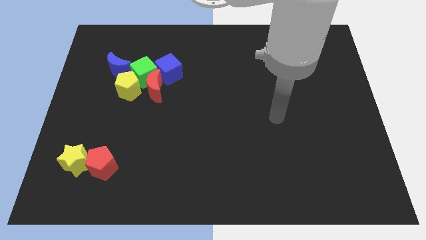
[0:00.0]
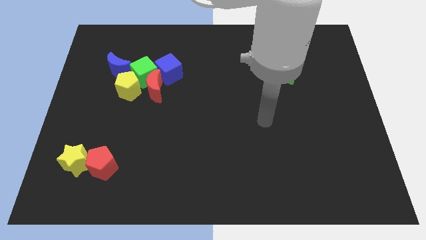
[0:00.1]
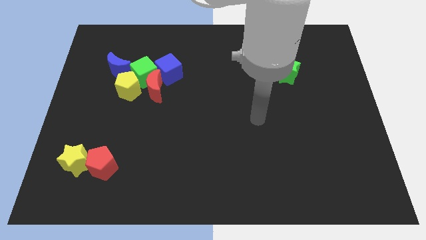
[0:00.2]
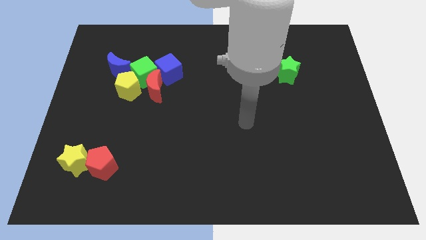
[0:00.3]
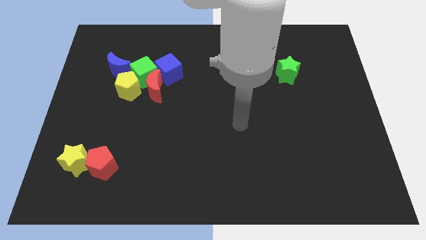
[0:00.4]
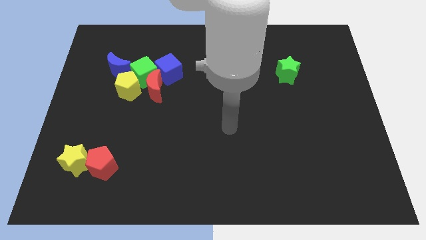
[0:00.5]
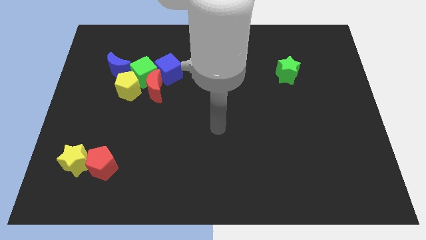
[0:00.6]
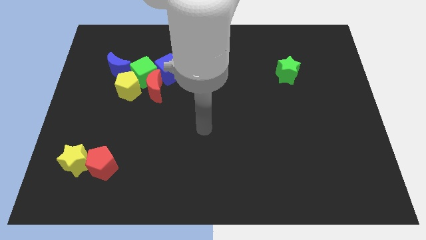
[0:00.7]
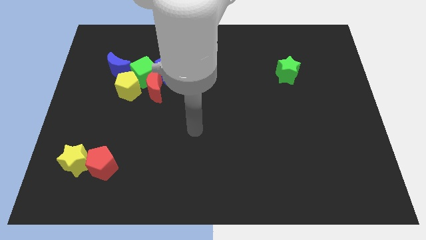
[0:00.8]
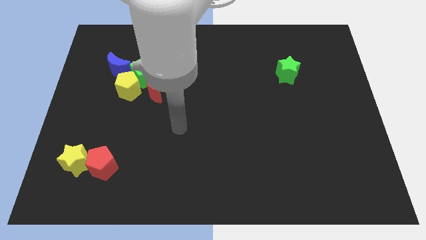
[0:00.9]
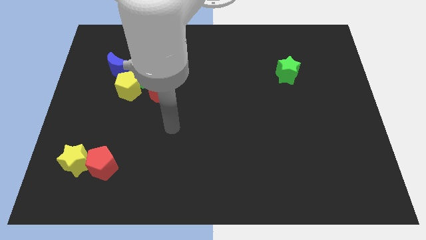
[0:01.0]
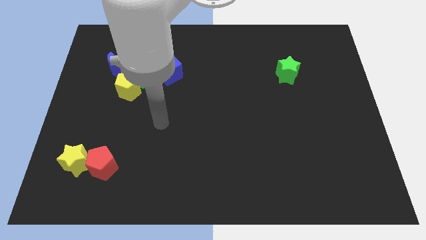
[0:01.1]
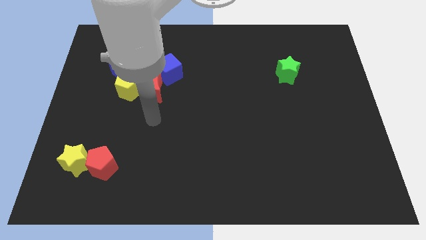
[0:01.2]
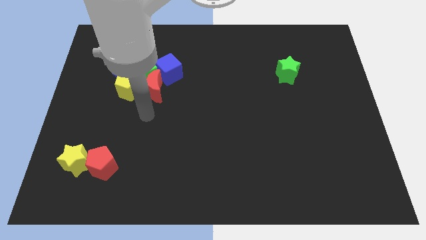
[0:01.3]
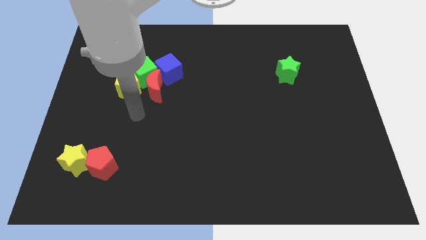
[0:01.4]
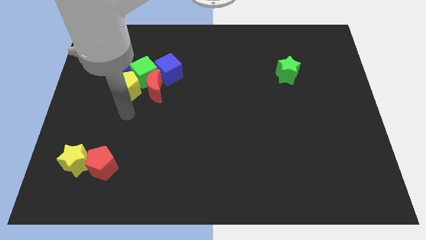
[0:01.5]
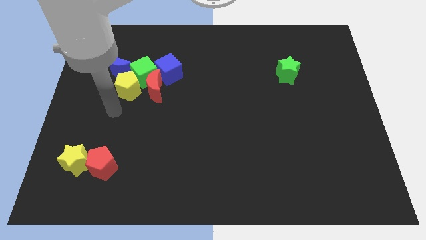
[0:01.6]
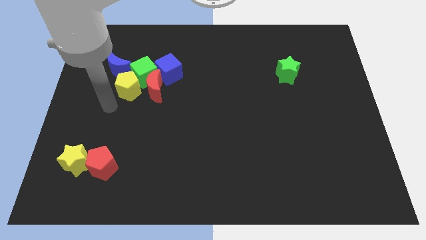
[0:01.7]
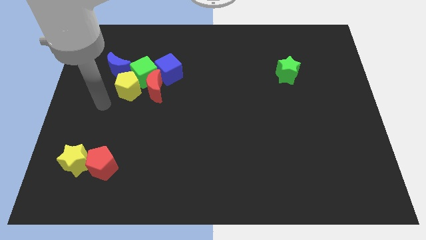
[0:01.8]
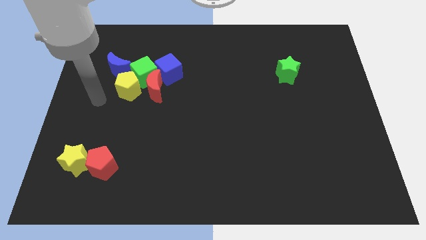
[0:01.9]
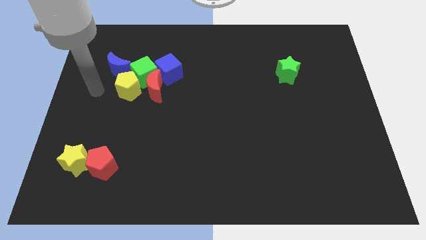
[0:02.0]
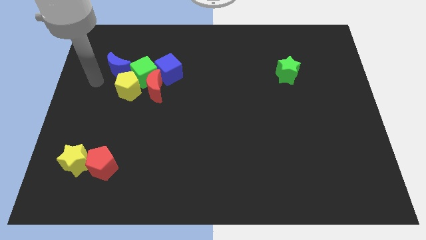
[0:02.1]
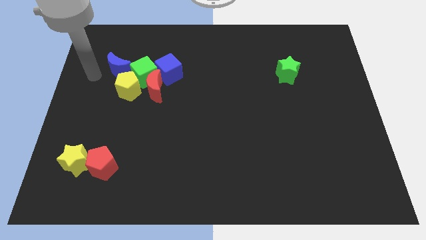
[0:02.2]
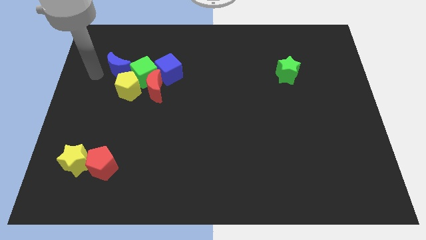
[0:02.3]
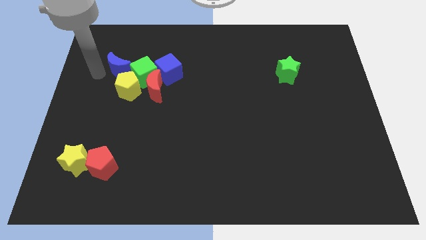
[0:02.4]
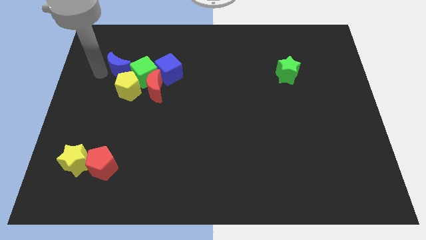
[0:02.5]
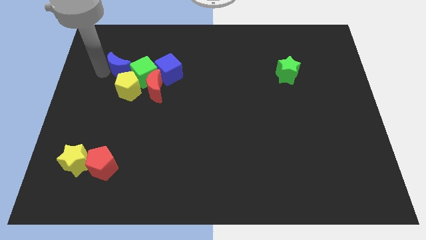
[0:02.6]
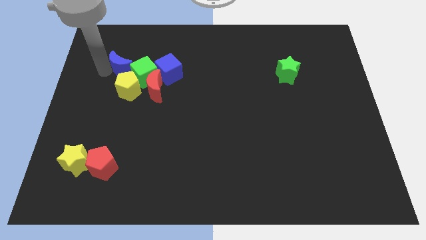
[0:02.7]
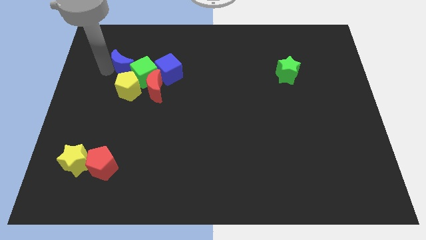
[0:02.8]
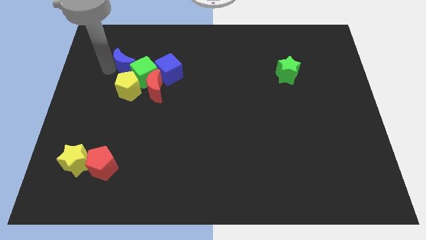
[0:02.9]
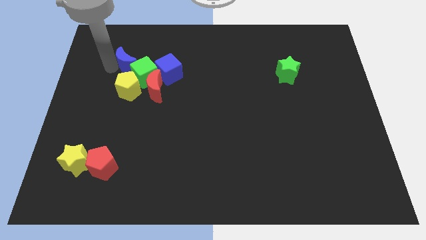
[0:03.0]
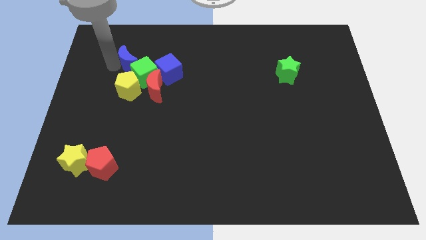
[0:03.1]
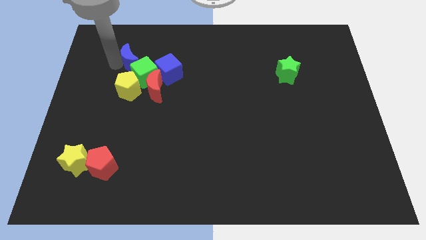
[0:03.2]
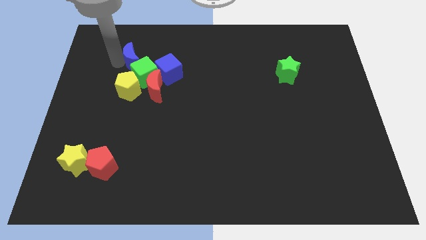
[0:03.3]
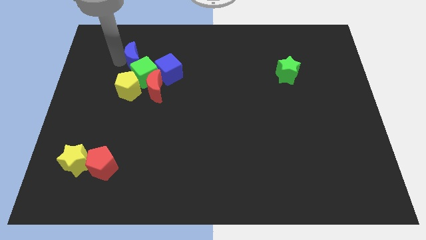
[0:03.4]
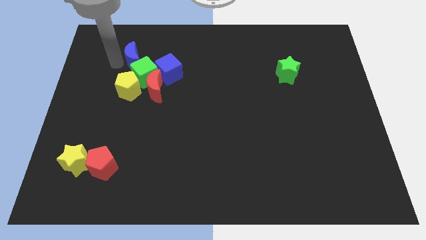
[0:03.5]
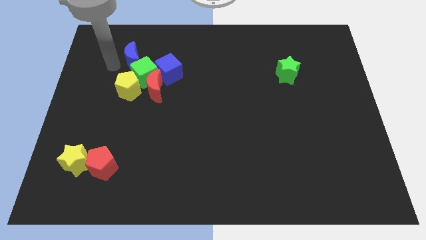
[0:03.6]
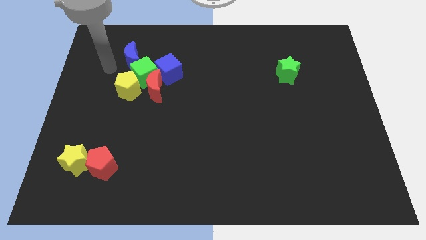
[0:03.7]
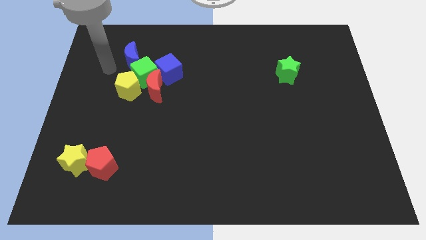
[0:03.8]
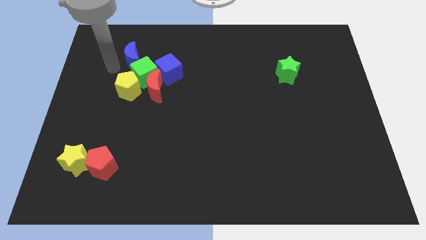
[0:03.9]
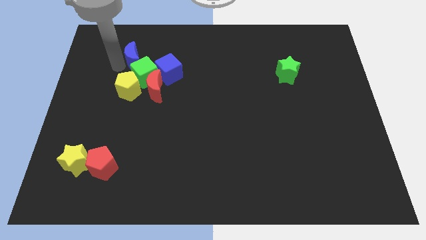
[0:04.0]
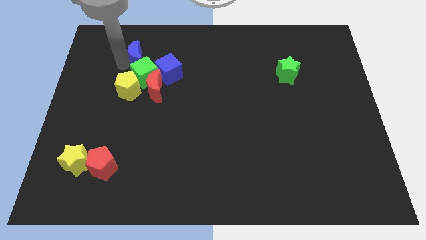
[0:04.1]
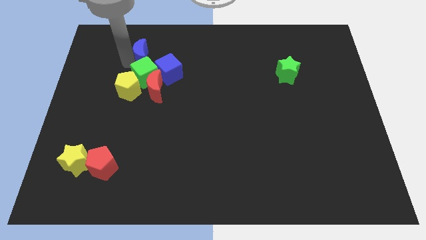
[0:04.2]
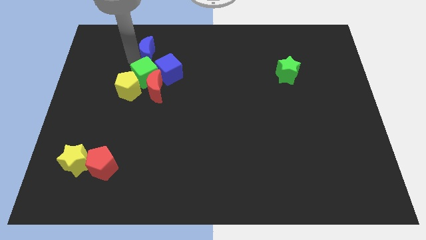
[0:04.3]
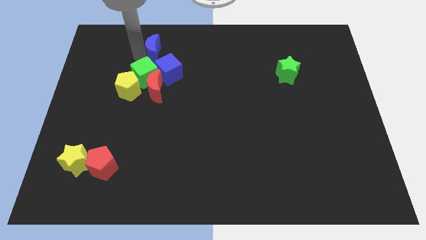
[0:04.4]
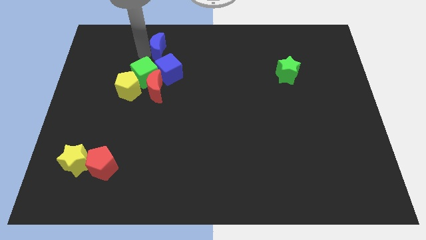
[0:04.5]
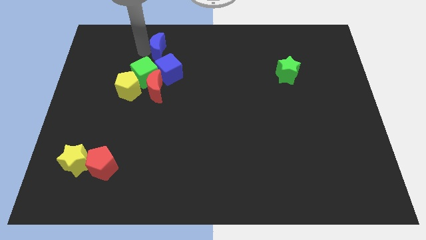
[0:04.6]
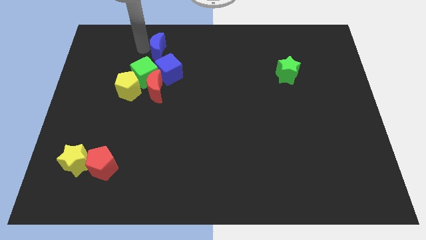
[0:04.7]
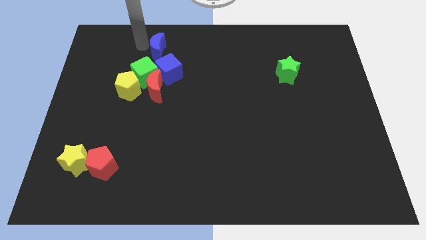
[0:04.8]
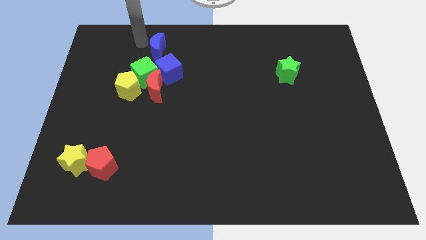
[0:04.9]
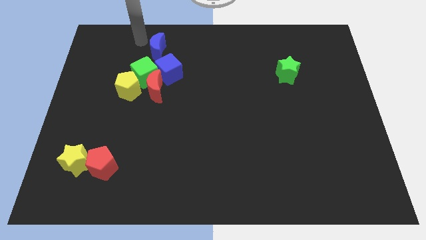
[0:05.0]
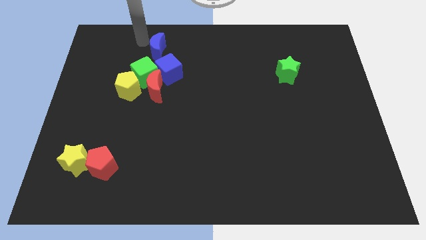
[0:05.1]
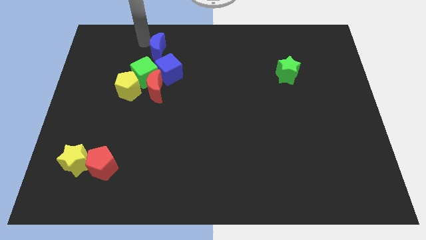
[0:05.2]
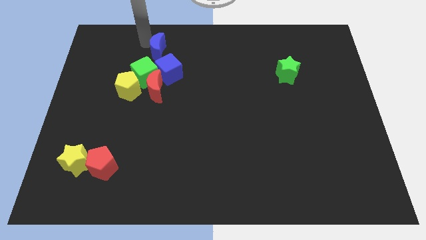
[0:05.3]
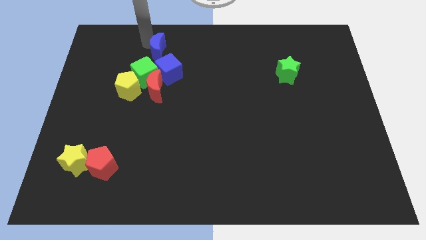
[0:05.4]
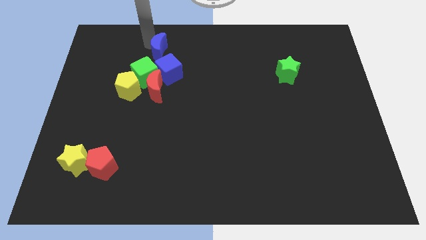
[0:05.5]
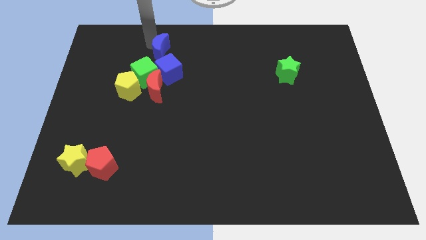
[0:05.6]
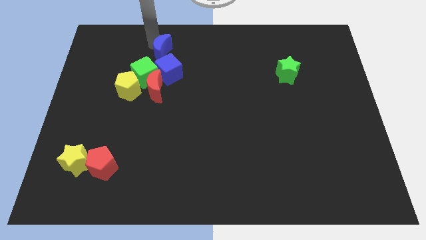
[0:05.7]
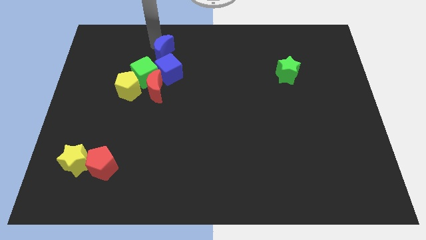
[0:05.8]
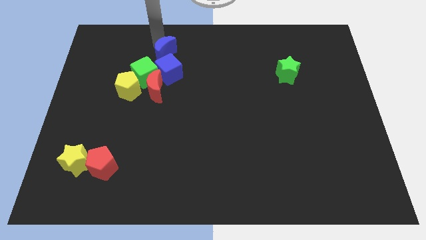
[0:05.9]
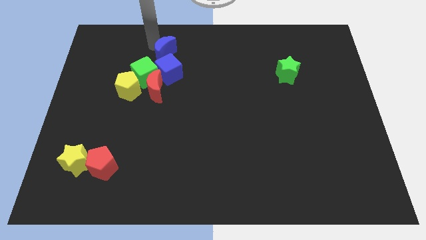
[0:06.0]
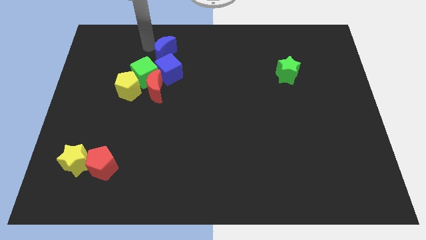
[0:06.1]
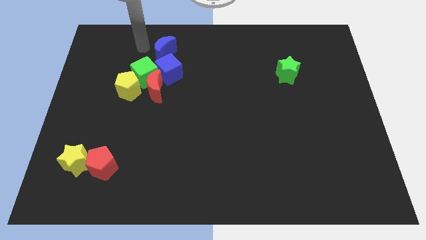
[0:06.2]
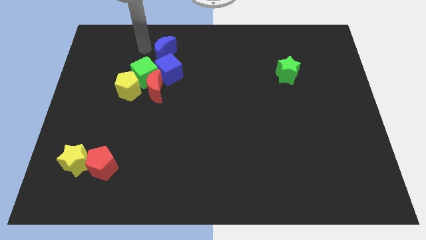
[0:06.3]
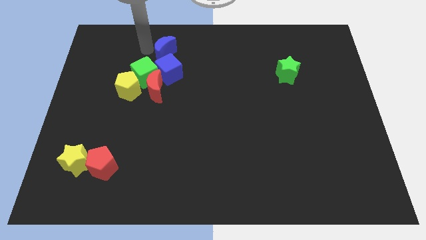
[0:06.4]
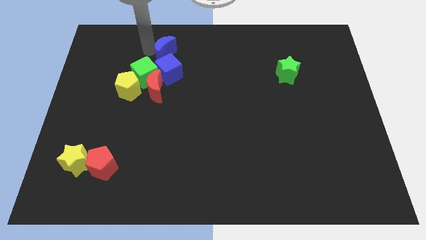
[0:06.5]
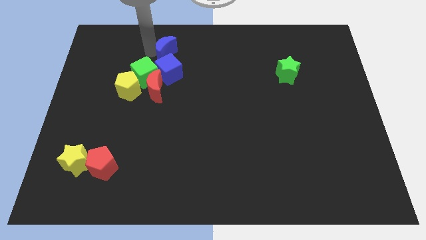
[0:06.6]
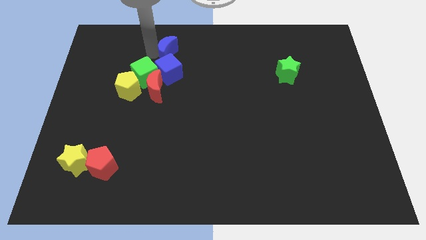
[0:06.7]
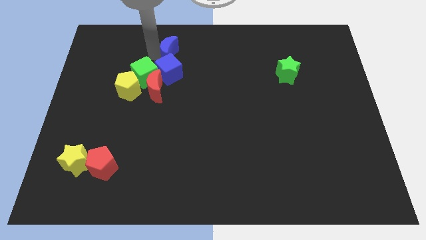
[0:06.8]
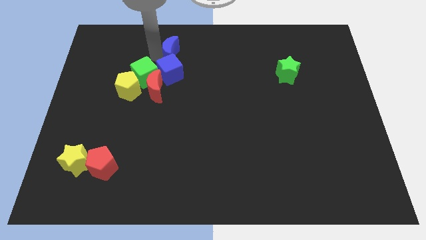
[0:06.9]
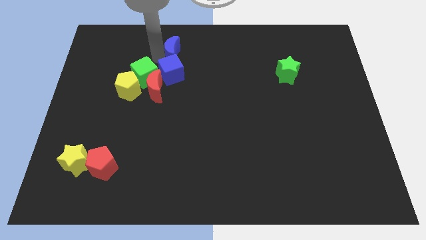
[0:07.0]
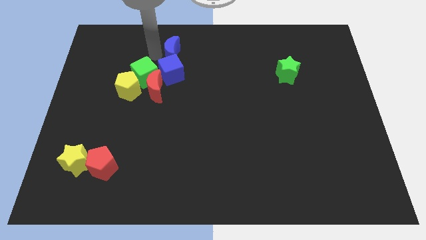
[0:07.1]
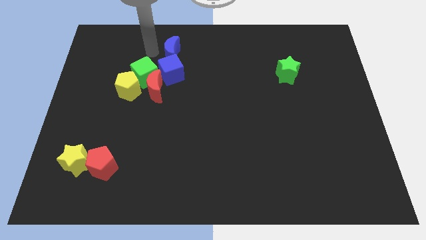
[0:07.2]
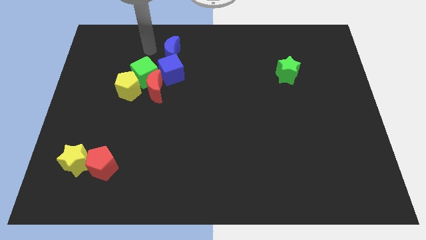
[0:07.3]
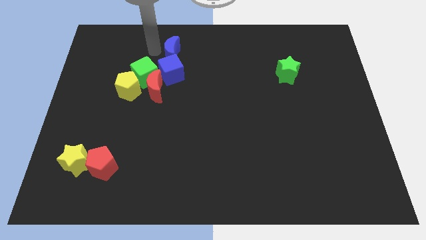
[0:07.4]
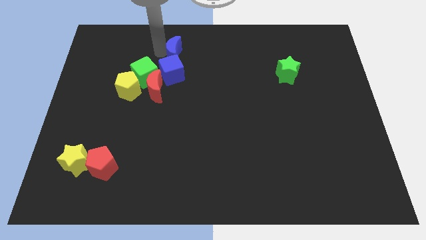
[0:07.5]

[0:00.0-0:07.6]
move the blue moon diagonally up and to the right of the blue cube

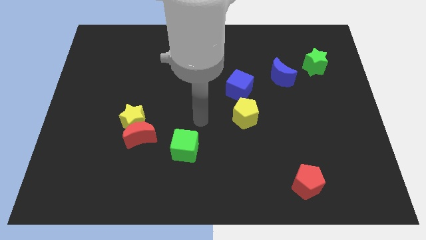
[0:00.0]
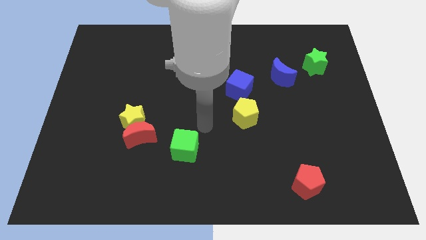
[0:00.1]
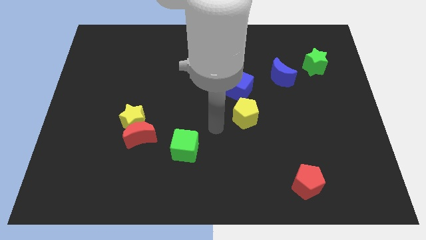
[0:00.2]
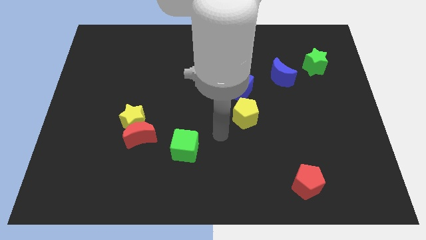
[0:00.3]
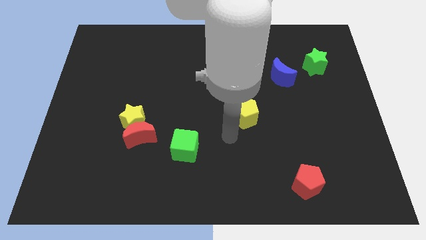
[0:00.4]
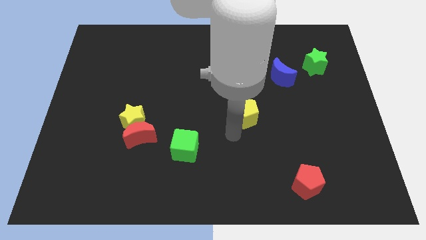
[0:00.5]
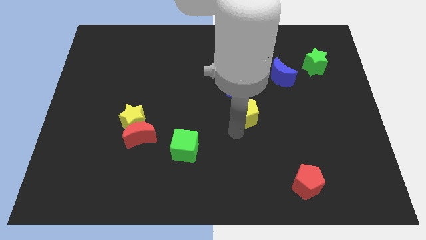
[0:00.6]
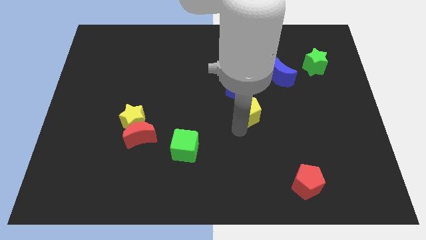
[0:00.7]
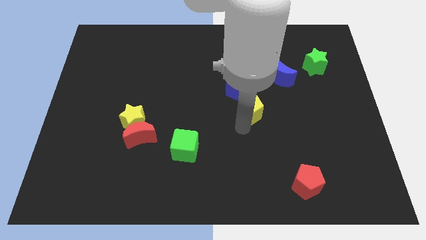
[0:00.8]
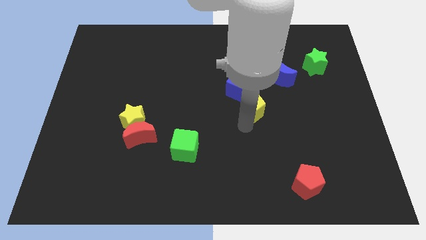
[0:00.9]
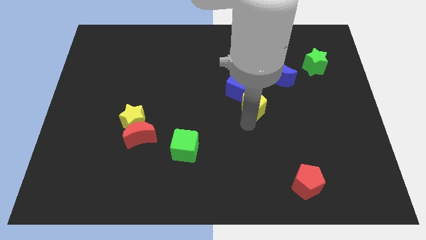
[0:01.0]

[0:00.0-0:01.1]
move the yellow pentagon to the bottom left of the blue moon
